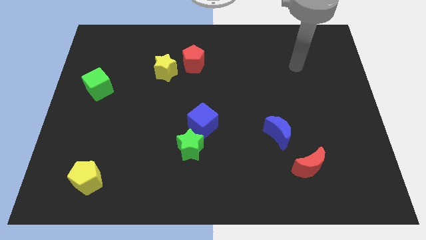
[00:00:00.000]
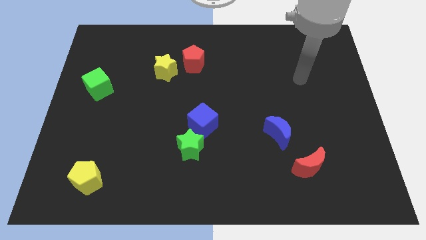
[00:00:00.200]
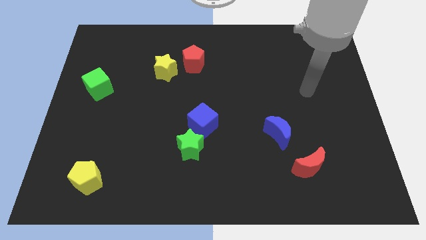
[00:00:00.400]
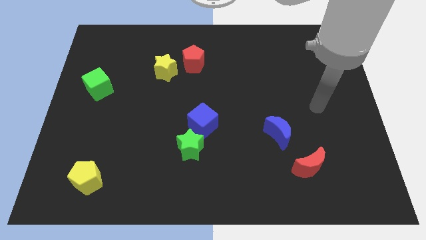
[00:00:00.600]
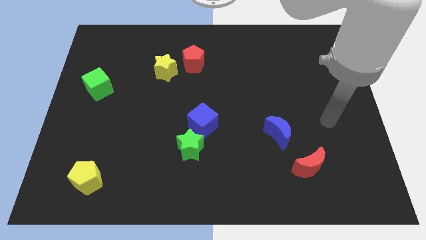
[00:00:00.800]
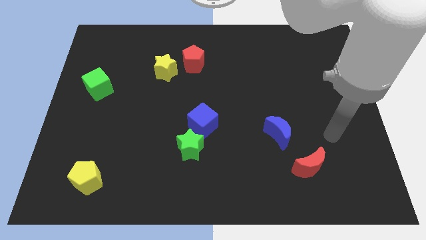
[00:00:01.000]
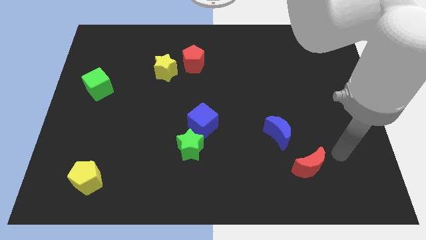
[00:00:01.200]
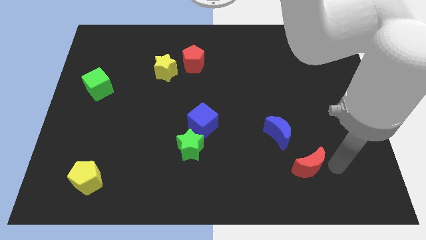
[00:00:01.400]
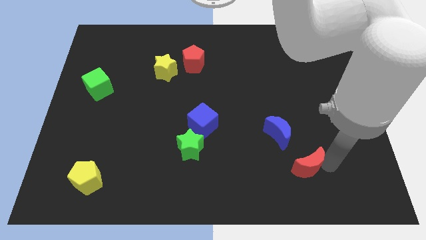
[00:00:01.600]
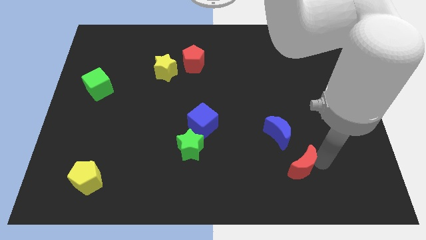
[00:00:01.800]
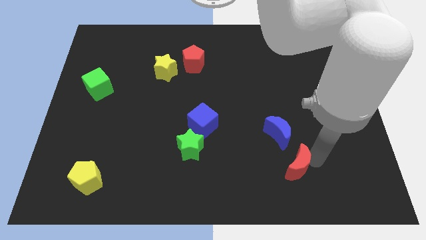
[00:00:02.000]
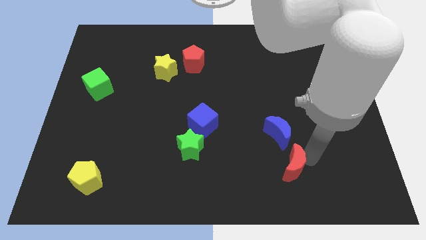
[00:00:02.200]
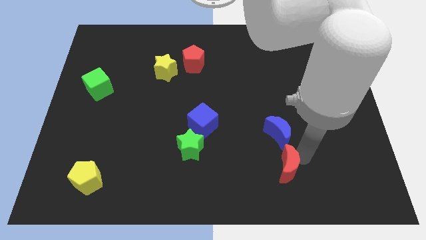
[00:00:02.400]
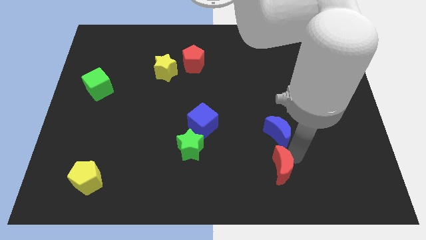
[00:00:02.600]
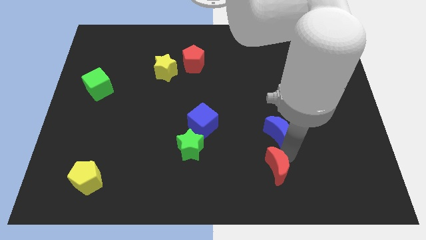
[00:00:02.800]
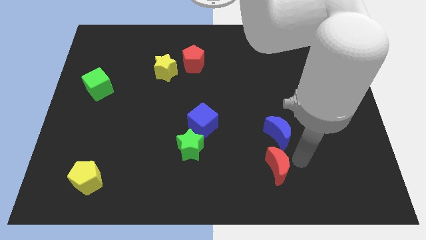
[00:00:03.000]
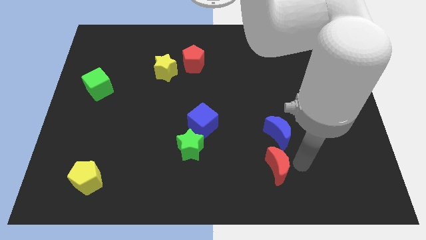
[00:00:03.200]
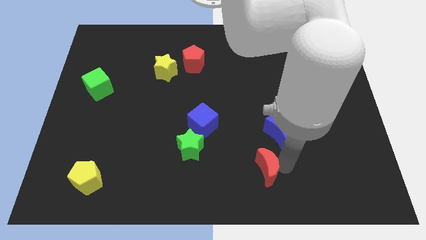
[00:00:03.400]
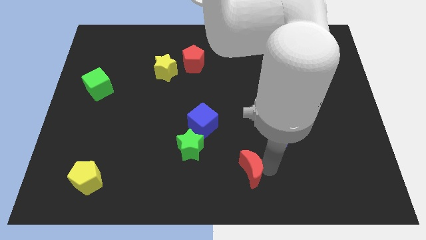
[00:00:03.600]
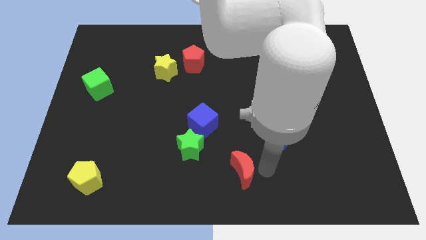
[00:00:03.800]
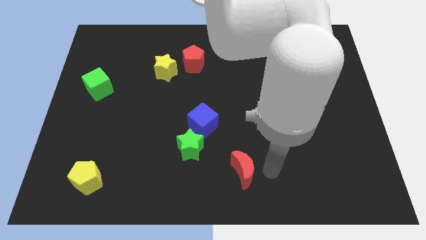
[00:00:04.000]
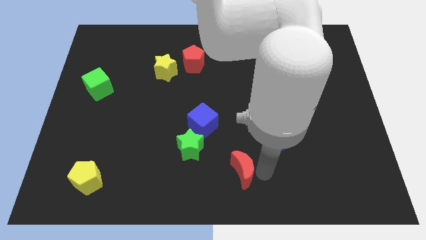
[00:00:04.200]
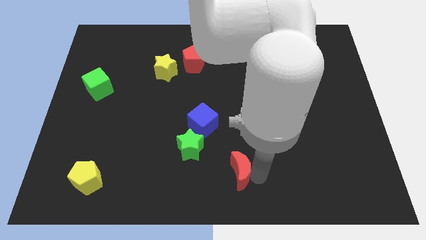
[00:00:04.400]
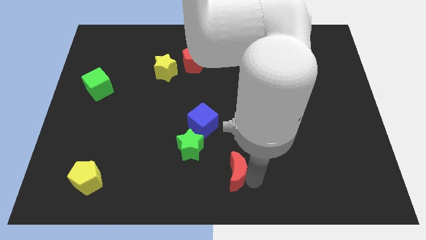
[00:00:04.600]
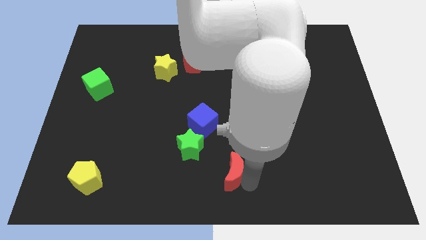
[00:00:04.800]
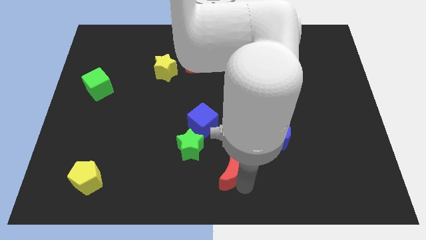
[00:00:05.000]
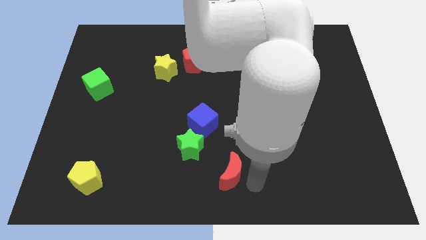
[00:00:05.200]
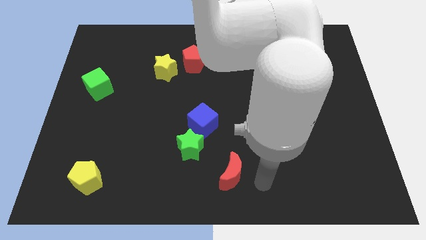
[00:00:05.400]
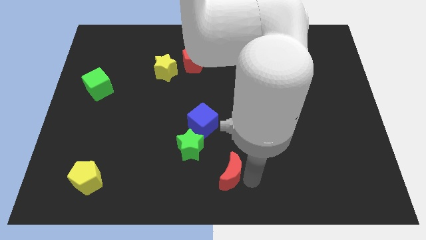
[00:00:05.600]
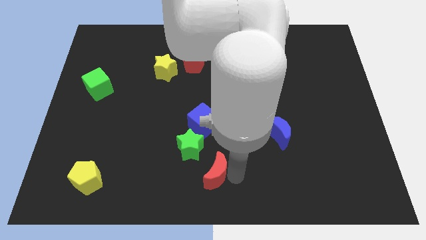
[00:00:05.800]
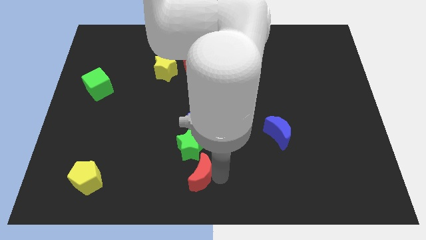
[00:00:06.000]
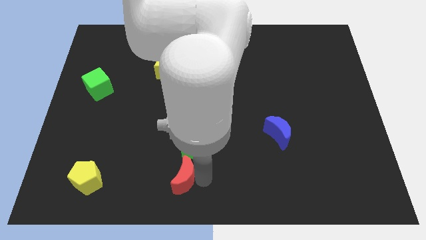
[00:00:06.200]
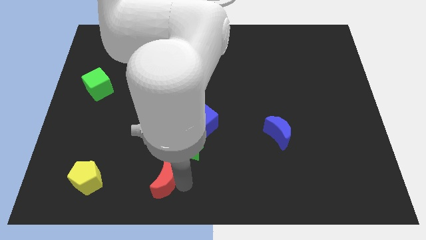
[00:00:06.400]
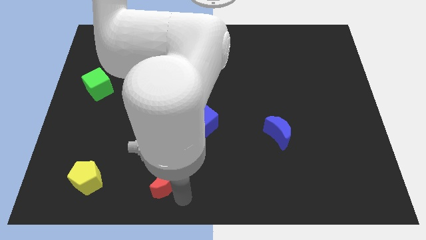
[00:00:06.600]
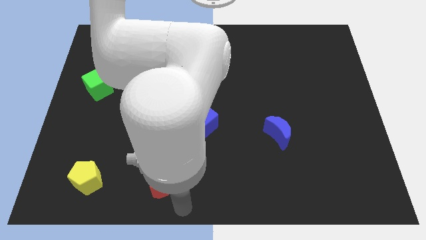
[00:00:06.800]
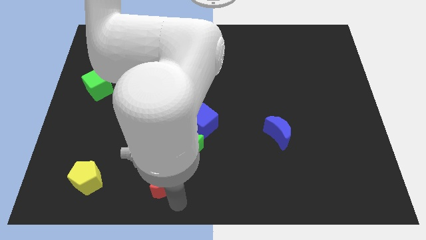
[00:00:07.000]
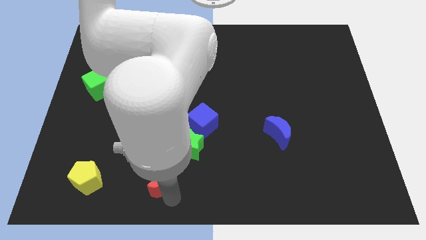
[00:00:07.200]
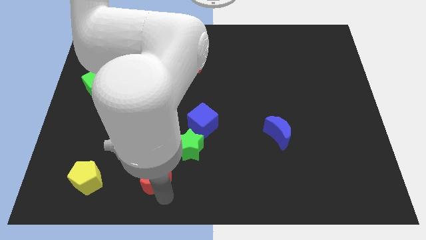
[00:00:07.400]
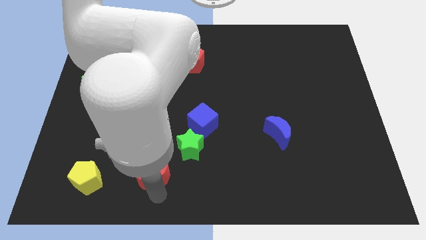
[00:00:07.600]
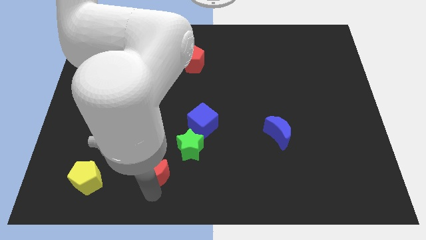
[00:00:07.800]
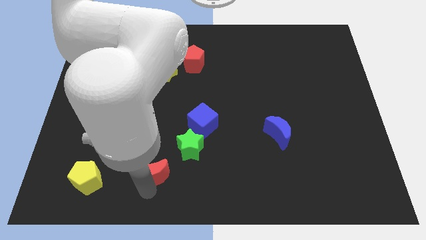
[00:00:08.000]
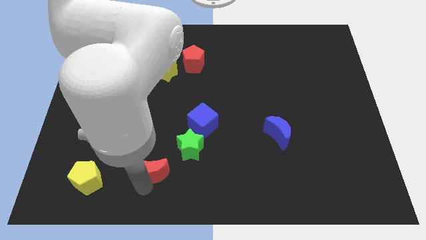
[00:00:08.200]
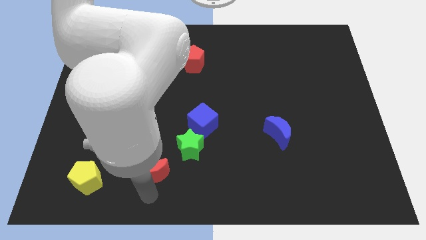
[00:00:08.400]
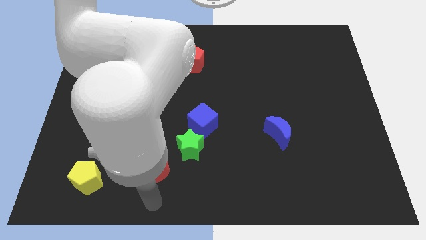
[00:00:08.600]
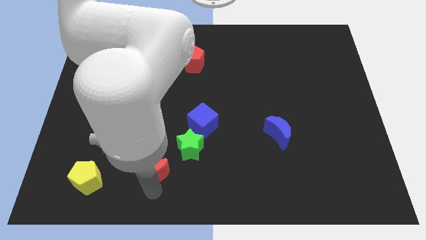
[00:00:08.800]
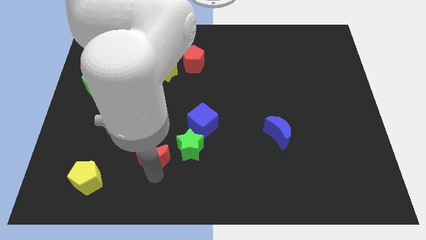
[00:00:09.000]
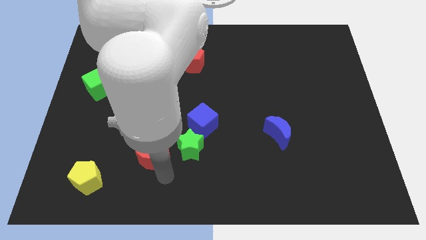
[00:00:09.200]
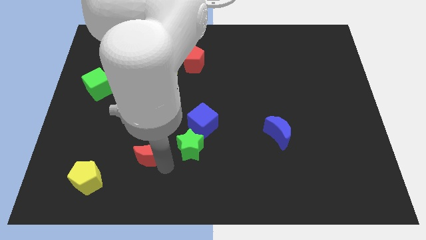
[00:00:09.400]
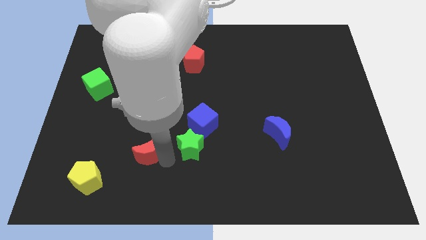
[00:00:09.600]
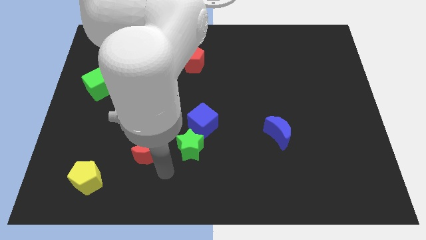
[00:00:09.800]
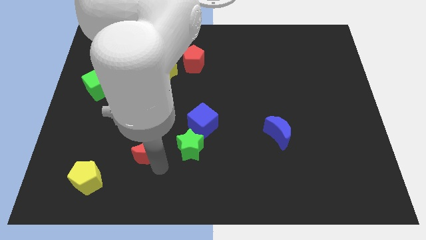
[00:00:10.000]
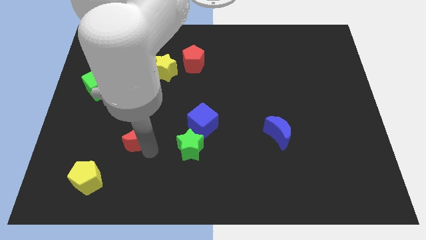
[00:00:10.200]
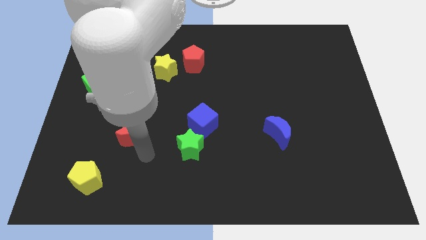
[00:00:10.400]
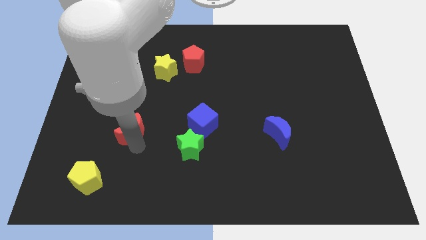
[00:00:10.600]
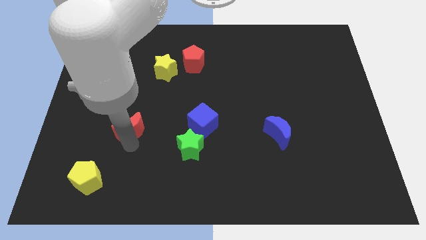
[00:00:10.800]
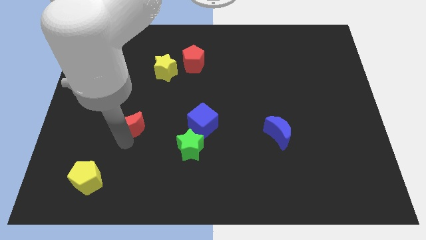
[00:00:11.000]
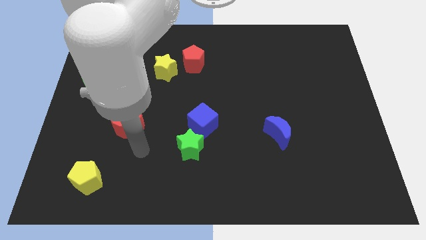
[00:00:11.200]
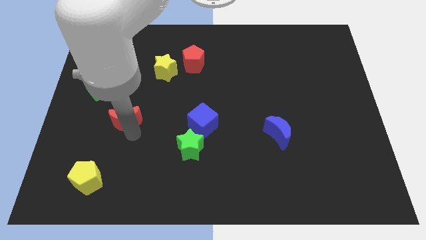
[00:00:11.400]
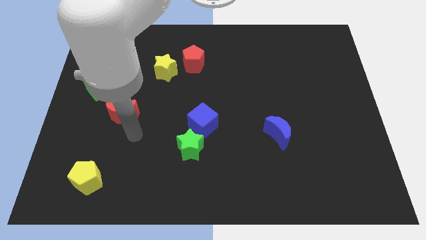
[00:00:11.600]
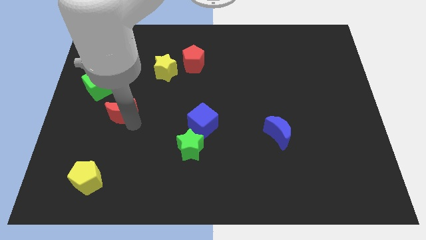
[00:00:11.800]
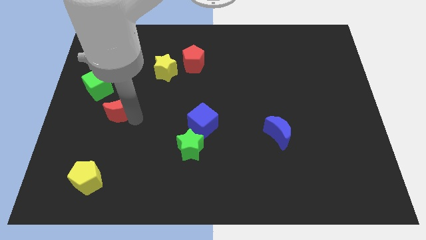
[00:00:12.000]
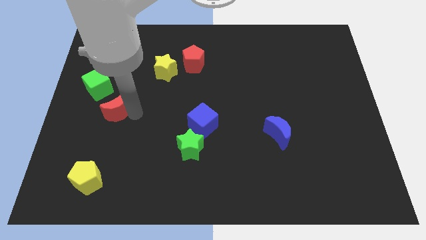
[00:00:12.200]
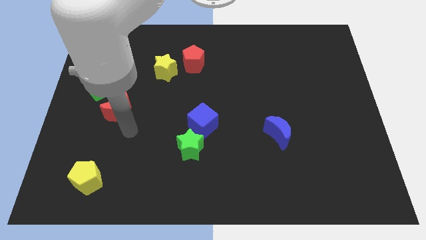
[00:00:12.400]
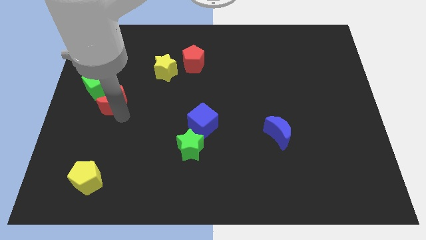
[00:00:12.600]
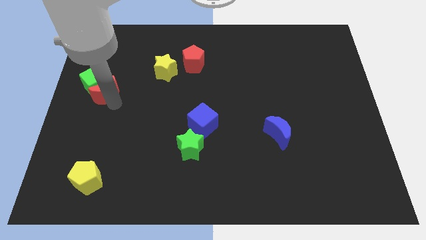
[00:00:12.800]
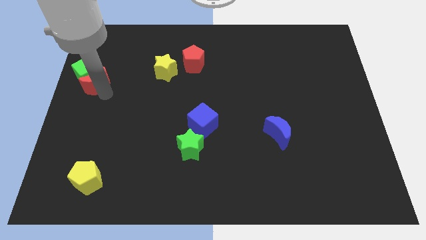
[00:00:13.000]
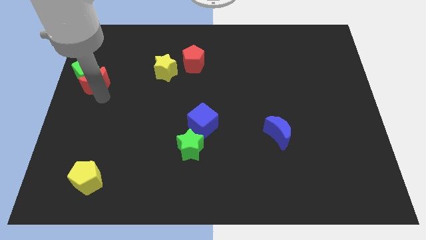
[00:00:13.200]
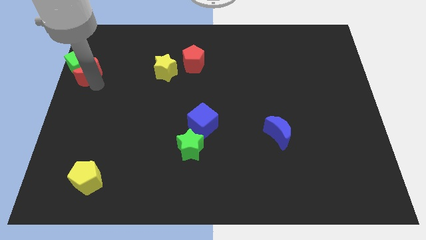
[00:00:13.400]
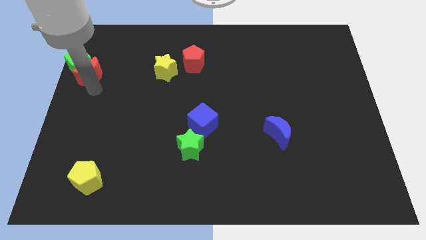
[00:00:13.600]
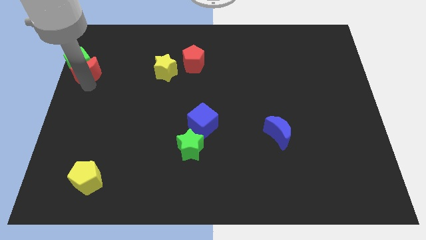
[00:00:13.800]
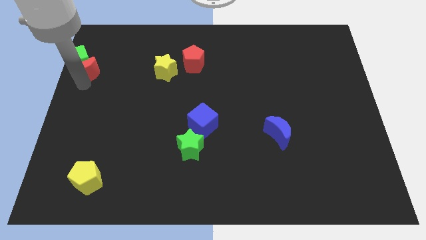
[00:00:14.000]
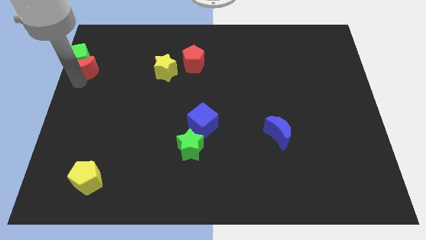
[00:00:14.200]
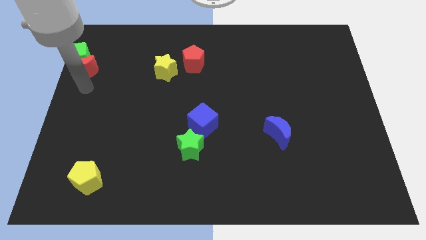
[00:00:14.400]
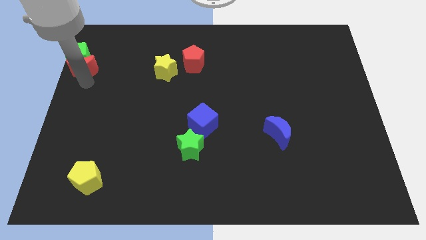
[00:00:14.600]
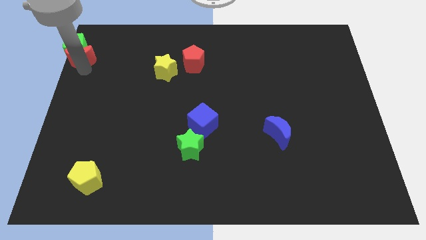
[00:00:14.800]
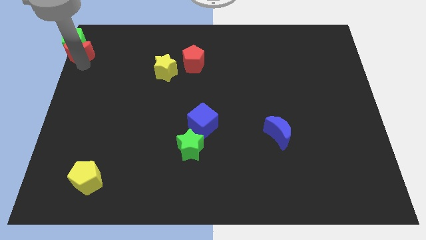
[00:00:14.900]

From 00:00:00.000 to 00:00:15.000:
push the red moon to the upper left corner
